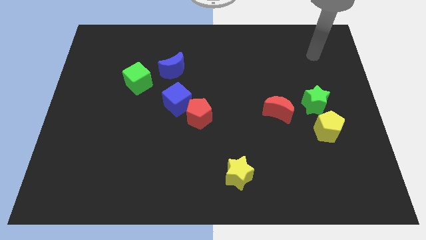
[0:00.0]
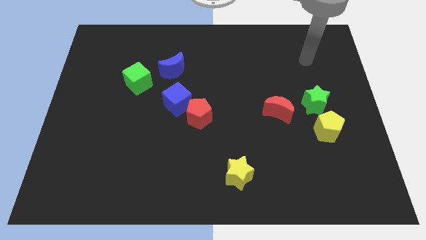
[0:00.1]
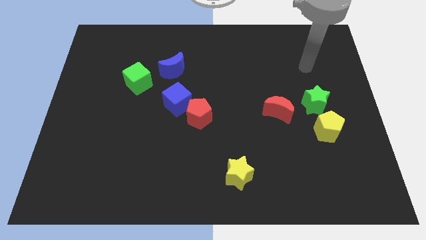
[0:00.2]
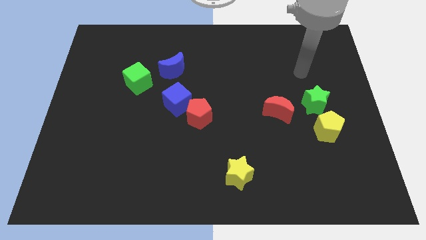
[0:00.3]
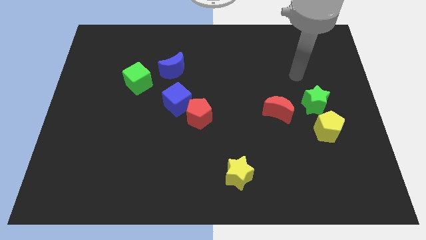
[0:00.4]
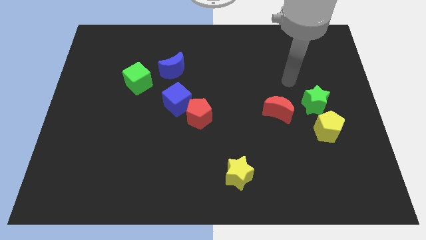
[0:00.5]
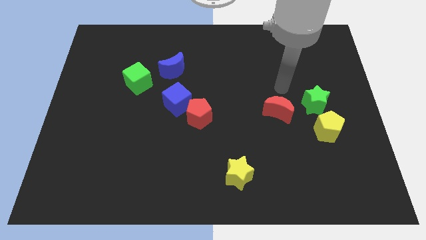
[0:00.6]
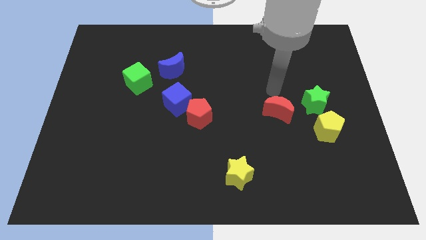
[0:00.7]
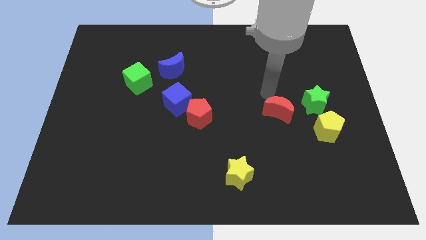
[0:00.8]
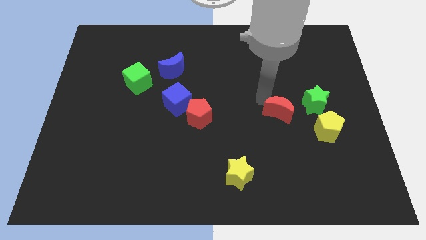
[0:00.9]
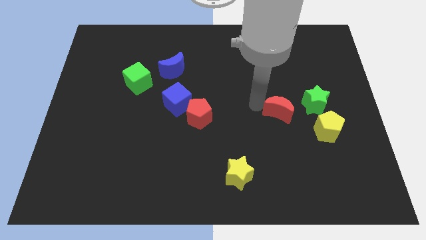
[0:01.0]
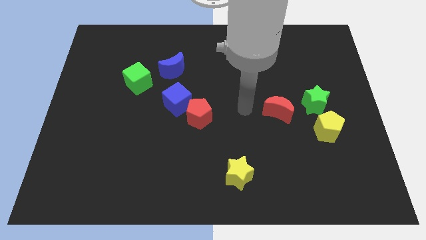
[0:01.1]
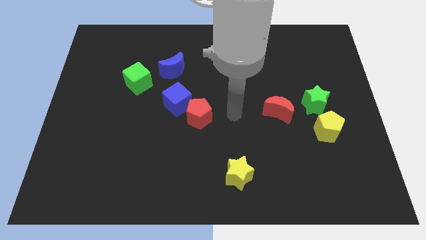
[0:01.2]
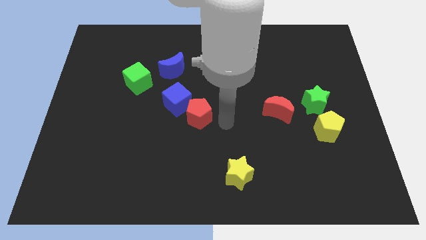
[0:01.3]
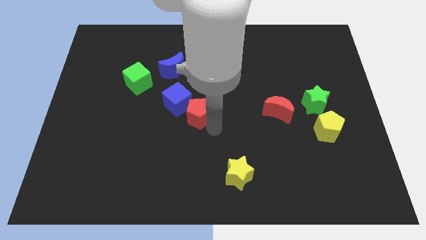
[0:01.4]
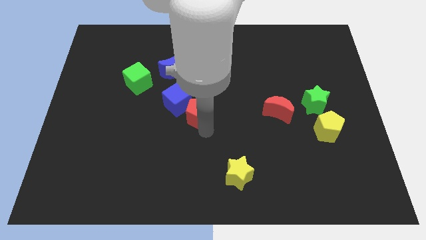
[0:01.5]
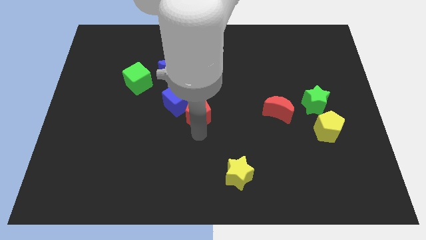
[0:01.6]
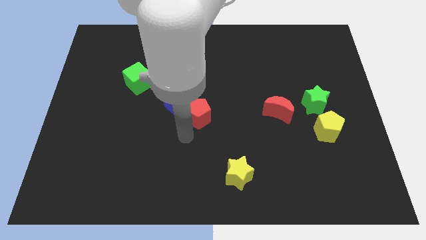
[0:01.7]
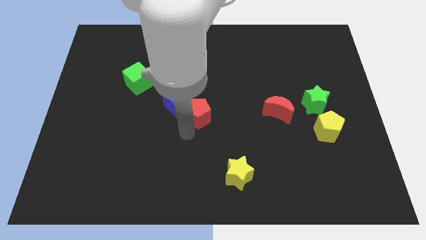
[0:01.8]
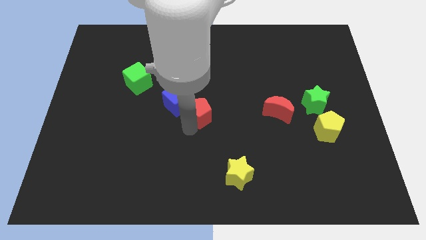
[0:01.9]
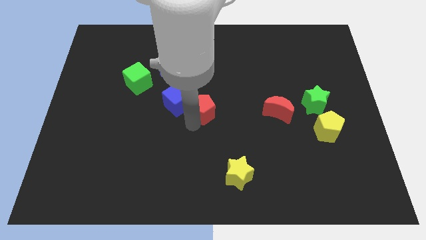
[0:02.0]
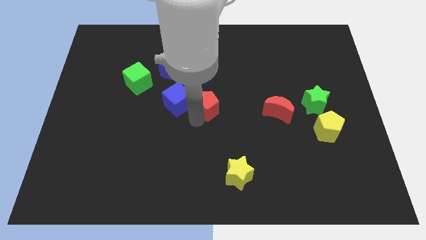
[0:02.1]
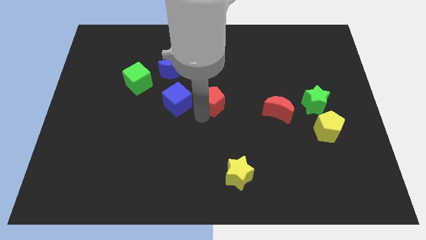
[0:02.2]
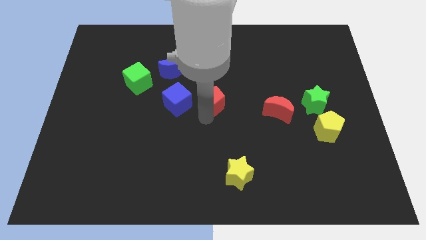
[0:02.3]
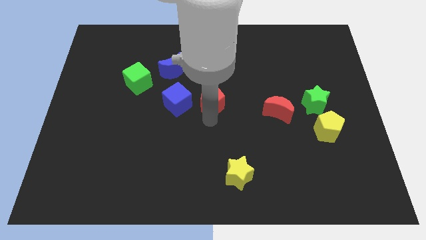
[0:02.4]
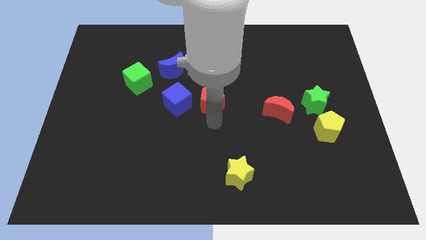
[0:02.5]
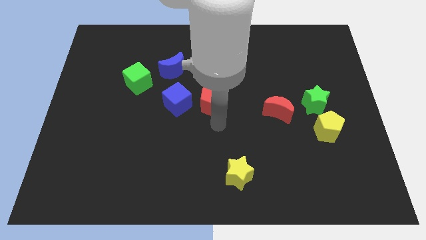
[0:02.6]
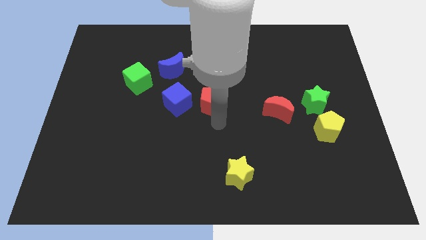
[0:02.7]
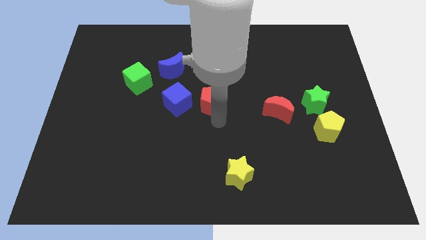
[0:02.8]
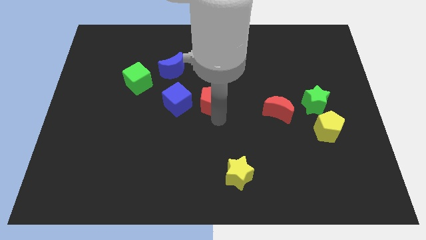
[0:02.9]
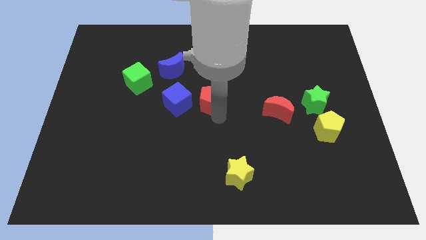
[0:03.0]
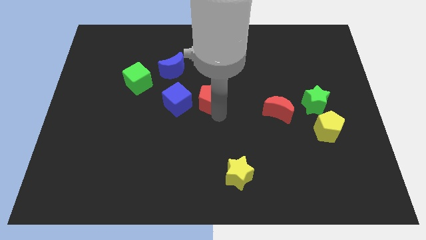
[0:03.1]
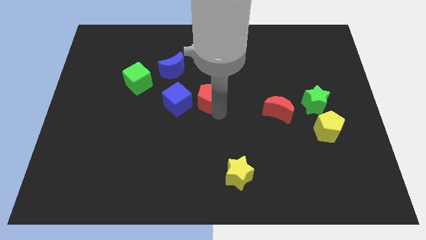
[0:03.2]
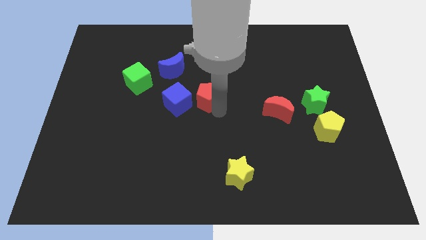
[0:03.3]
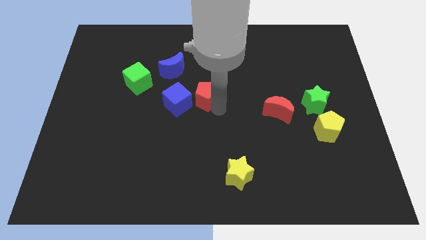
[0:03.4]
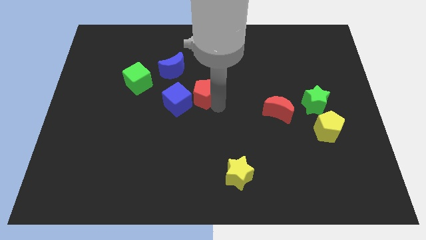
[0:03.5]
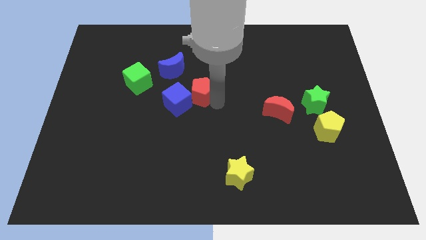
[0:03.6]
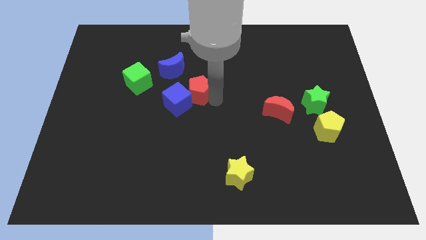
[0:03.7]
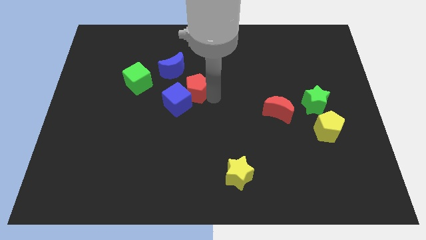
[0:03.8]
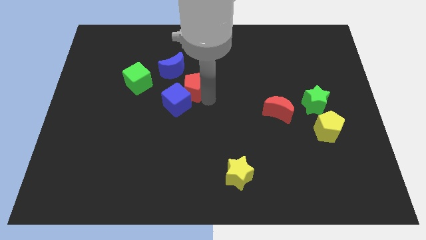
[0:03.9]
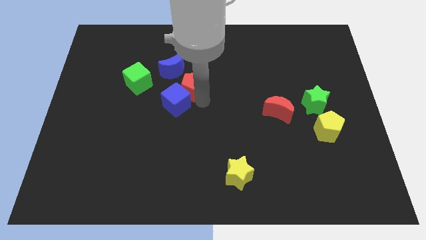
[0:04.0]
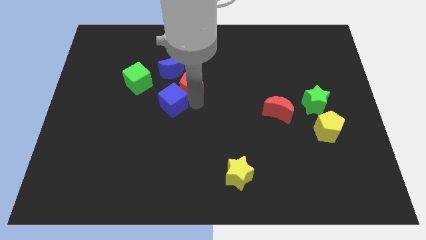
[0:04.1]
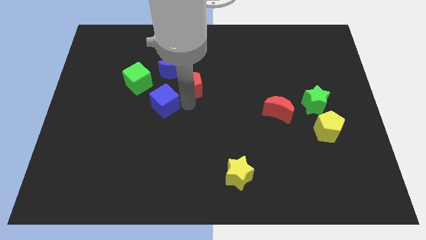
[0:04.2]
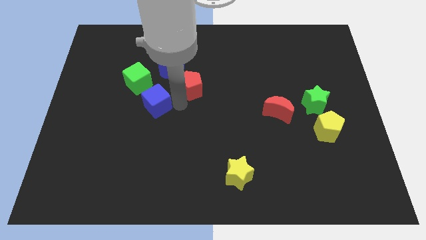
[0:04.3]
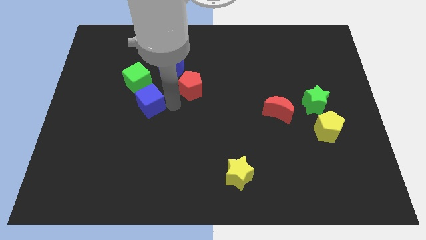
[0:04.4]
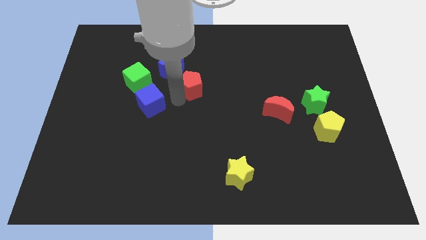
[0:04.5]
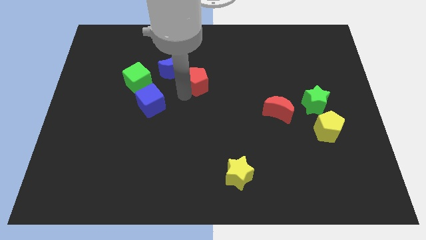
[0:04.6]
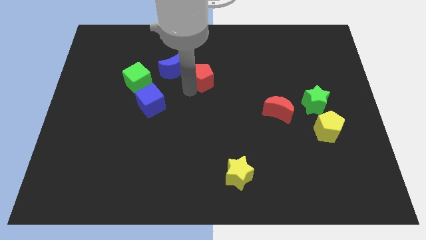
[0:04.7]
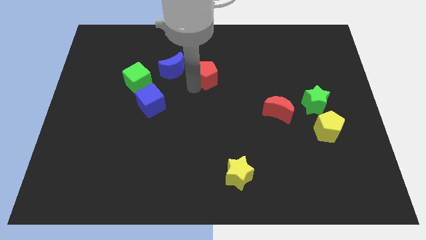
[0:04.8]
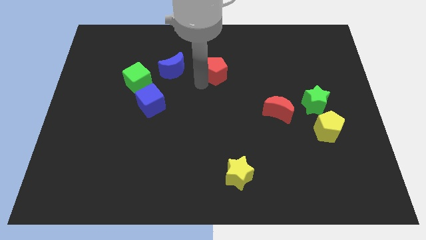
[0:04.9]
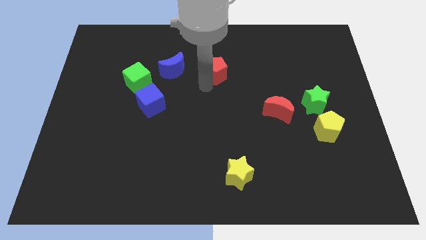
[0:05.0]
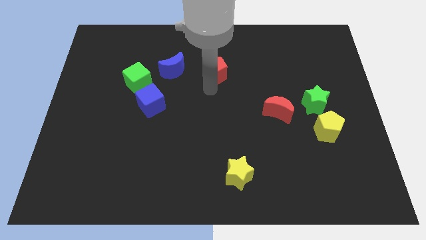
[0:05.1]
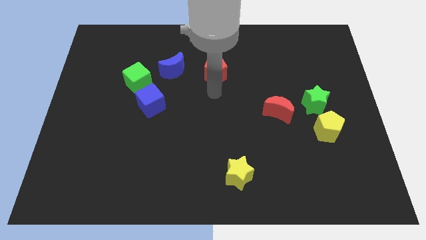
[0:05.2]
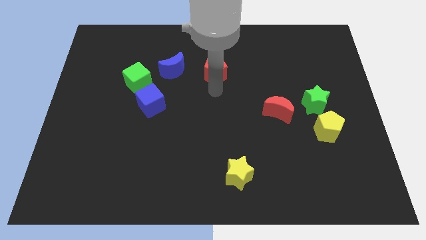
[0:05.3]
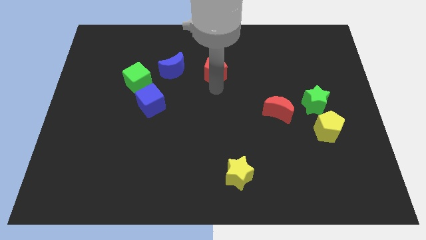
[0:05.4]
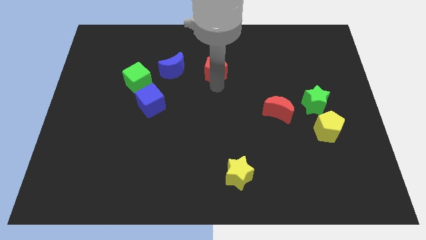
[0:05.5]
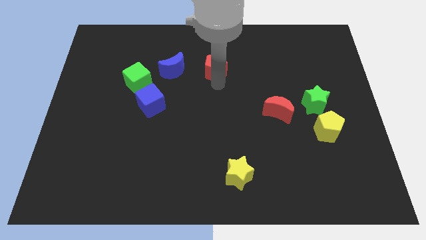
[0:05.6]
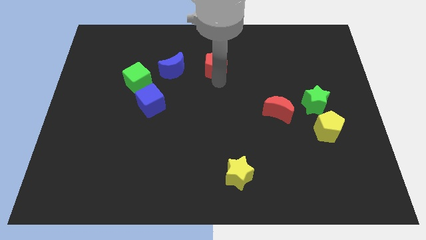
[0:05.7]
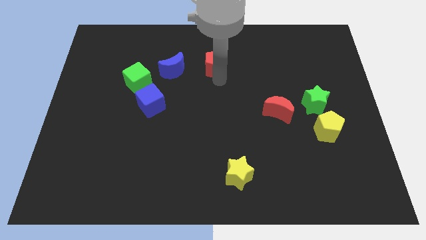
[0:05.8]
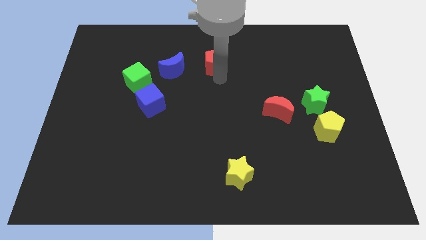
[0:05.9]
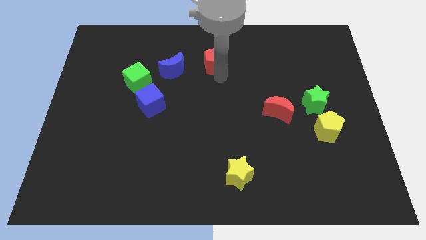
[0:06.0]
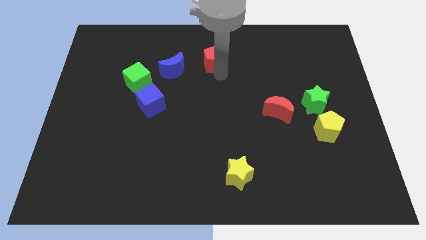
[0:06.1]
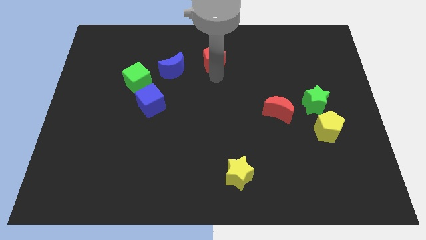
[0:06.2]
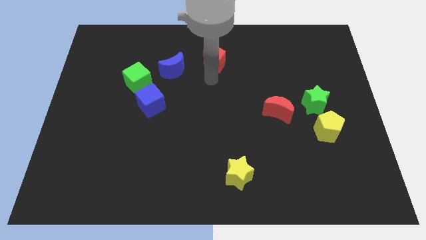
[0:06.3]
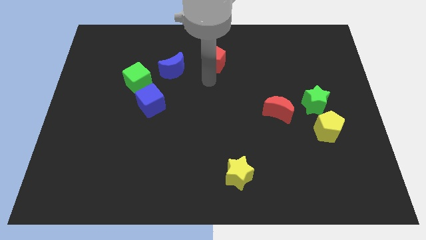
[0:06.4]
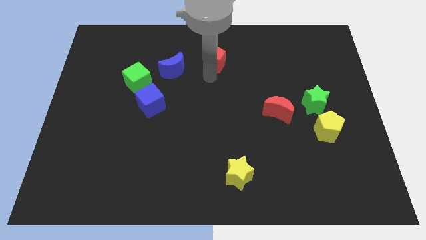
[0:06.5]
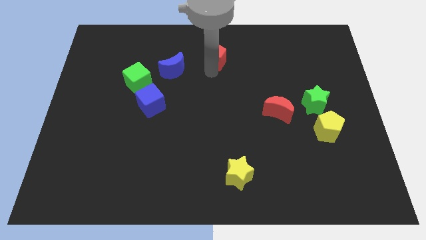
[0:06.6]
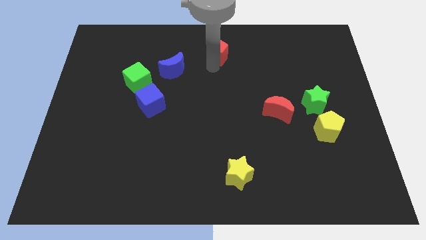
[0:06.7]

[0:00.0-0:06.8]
slide the red pentagon to the towards your base
